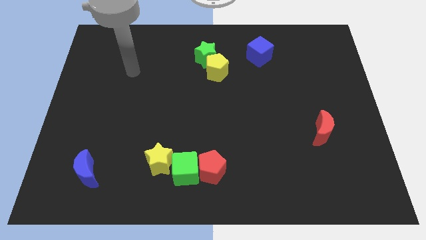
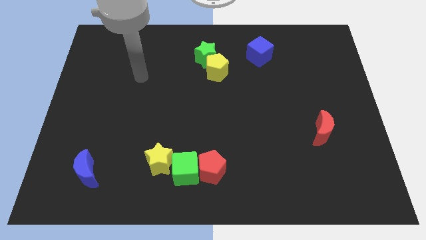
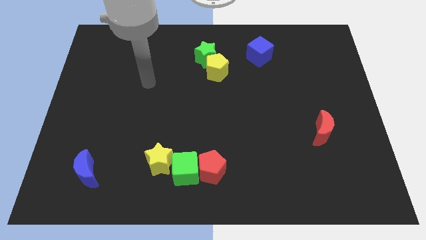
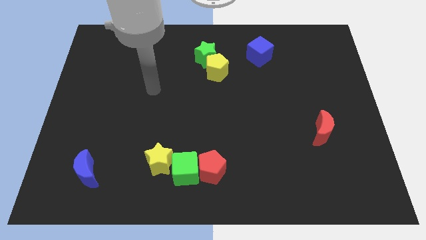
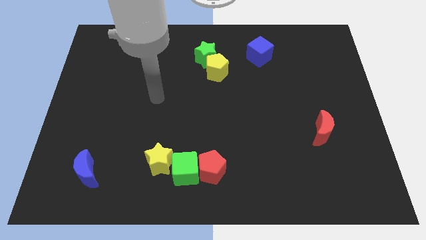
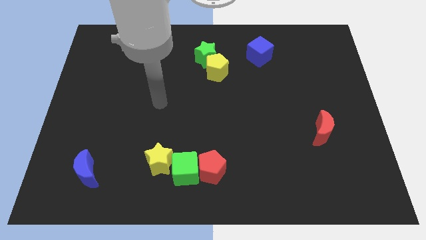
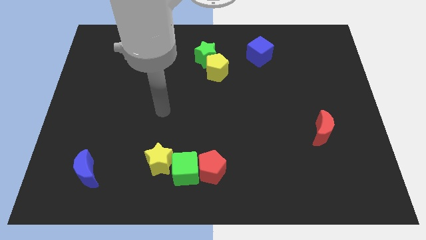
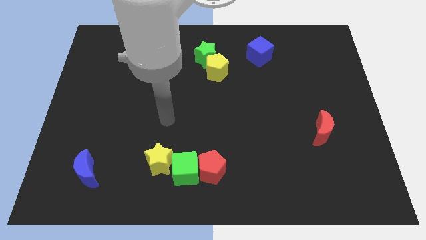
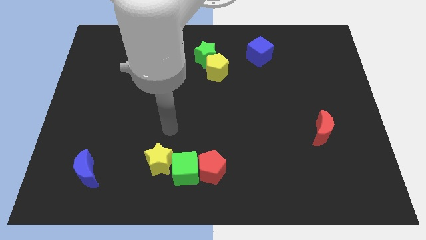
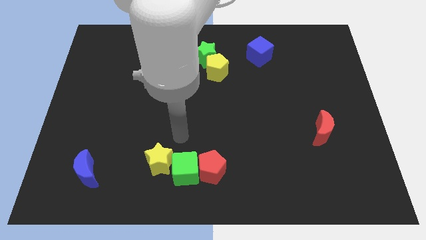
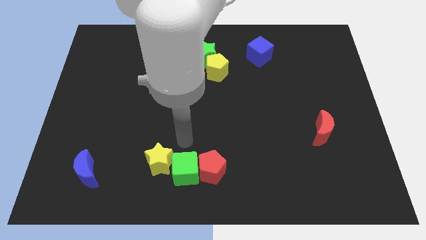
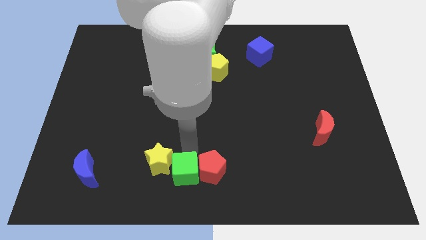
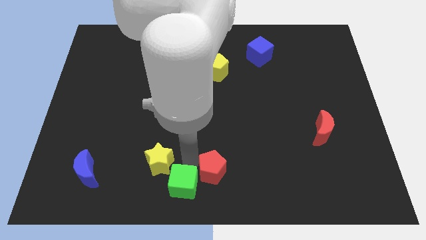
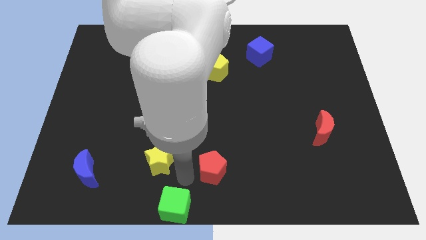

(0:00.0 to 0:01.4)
separate the red pentagon from the green cube

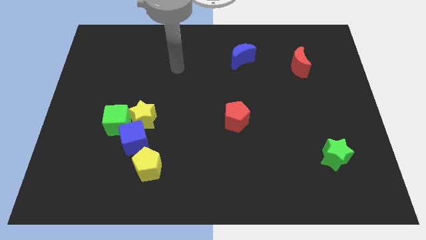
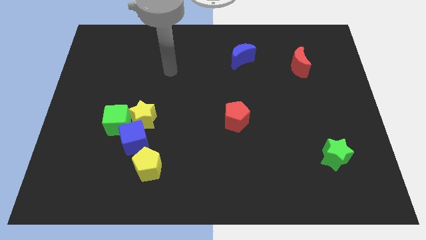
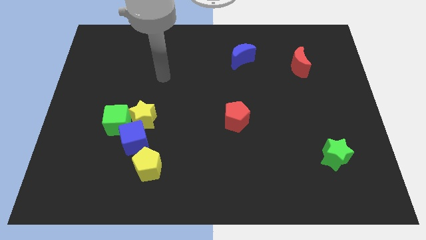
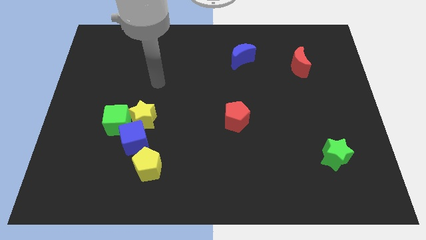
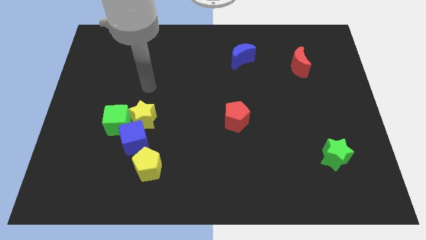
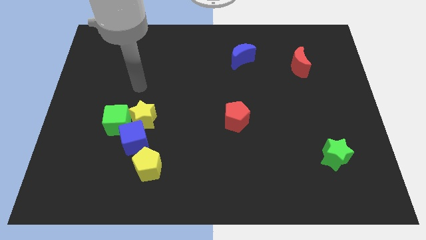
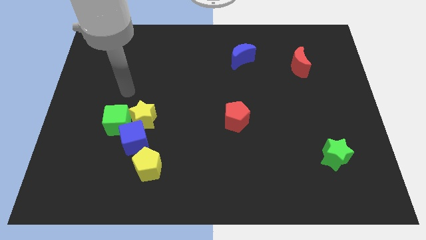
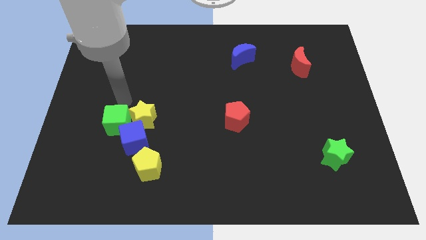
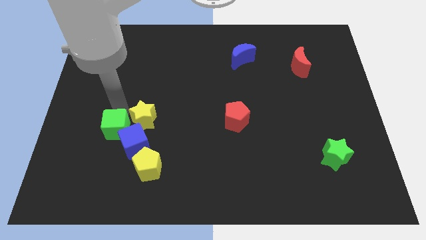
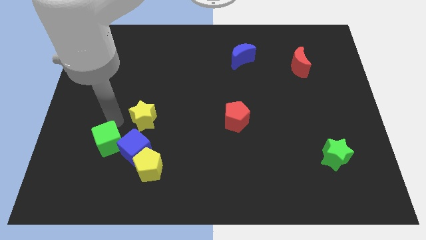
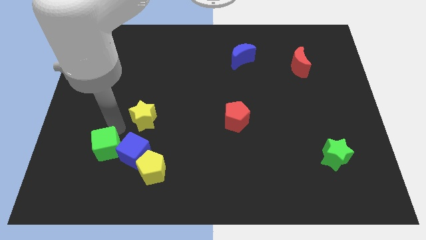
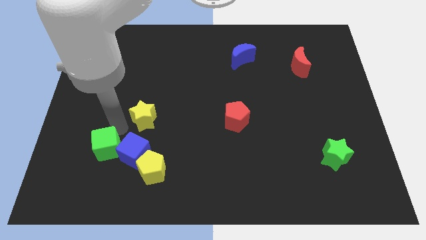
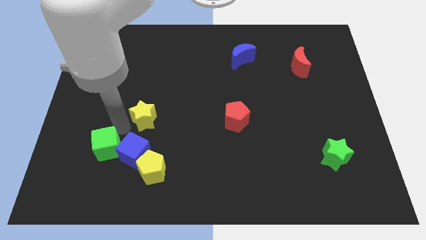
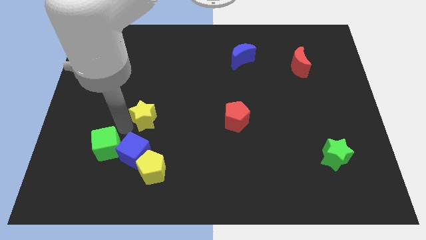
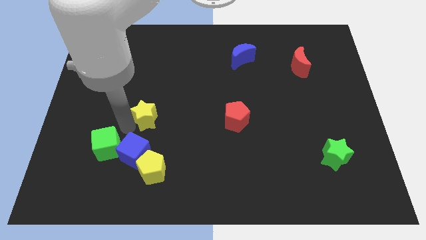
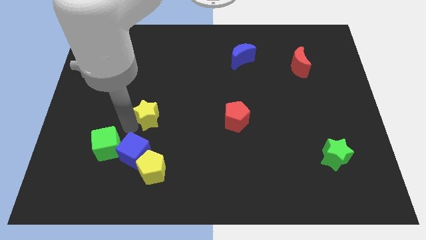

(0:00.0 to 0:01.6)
pull the yellow star apart from the green cube and blue cube

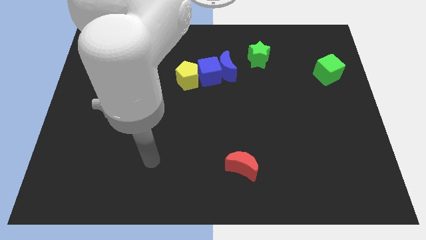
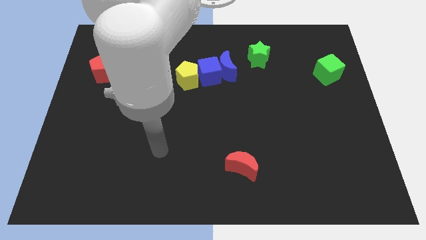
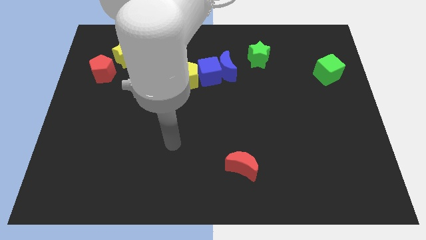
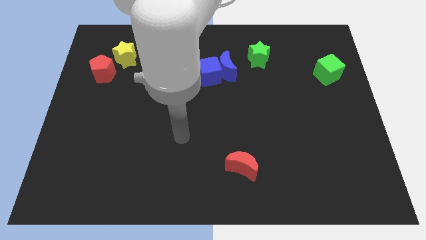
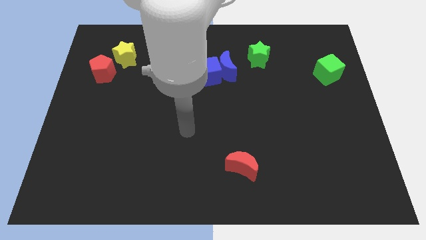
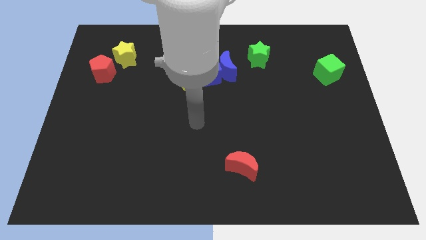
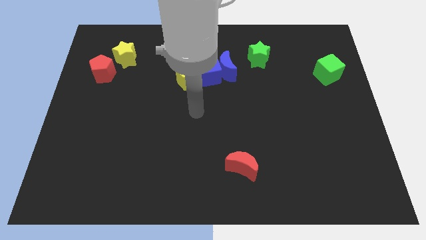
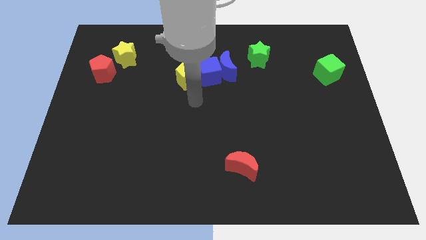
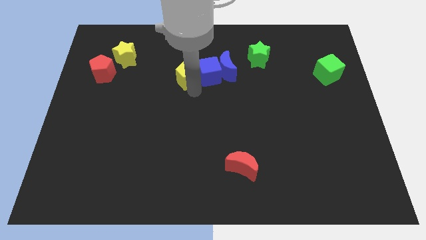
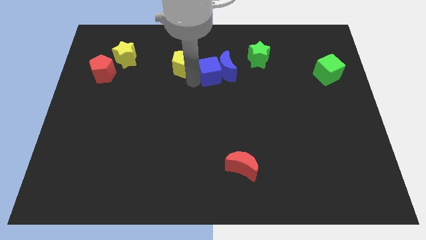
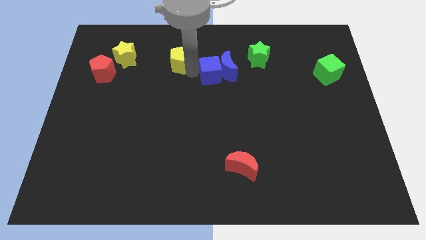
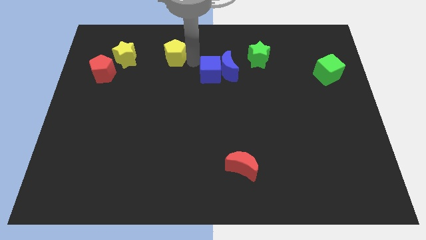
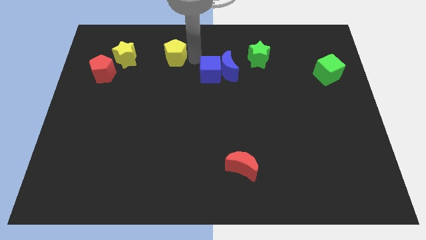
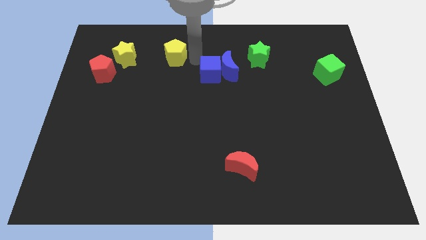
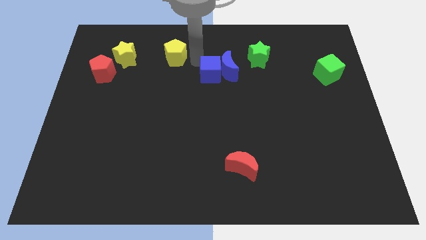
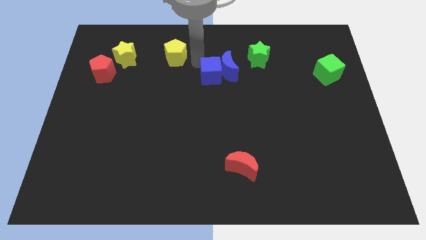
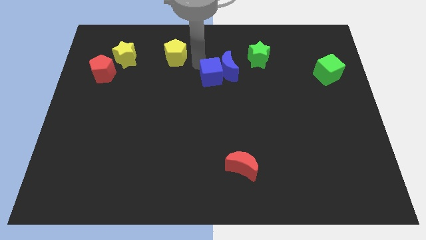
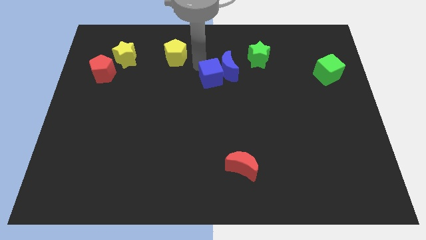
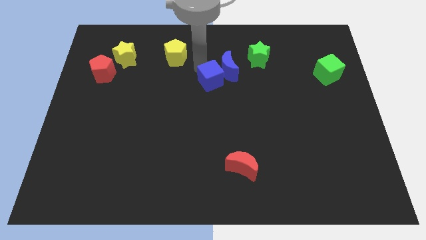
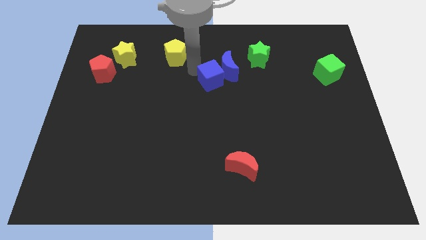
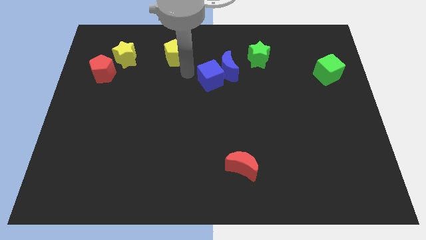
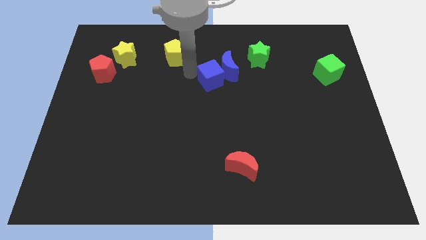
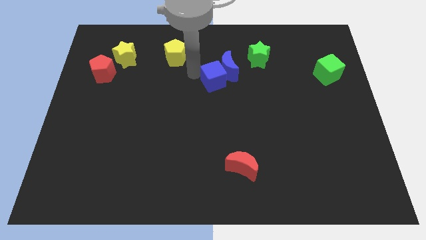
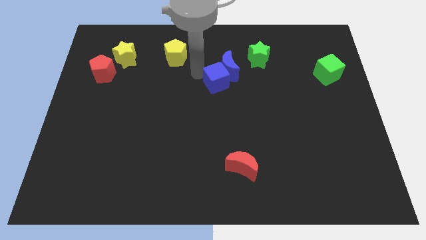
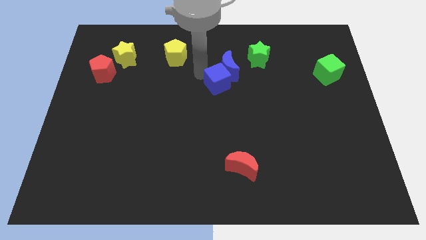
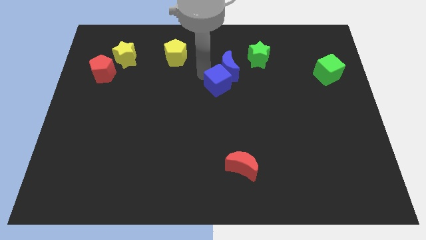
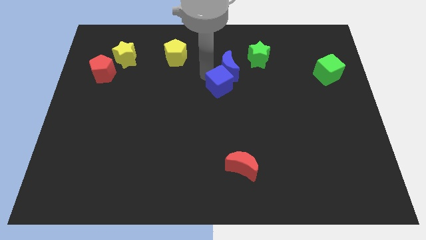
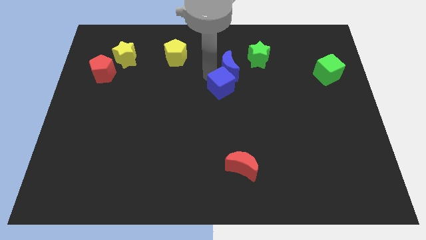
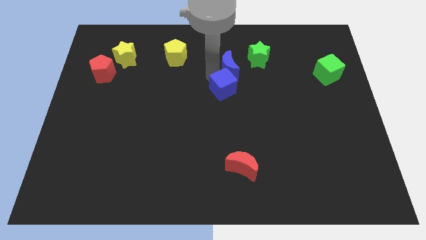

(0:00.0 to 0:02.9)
pull the blue cube apart from the blue moon and yellow pentagon

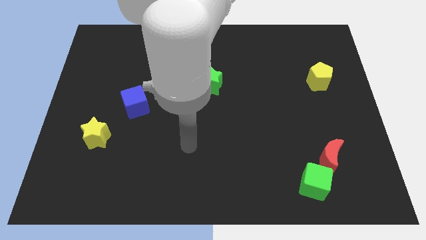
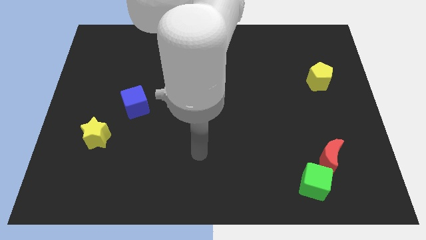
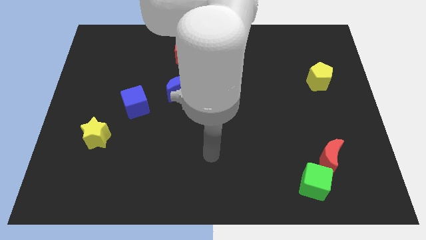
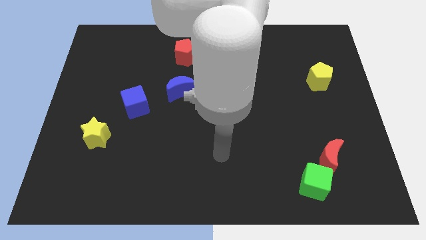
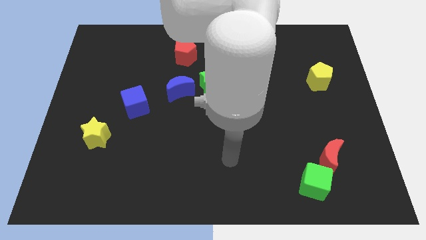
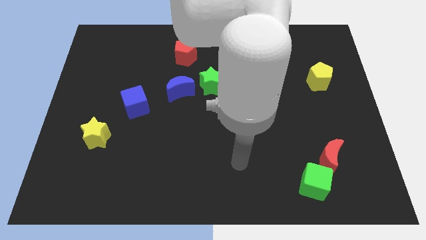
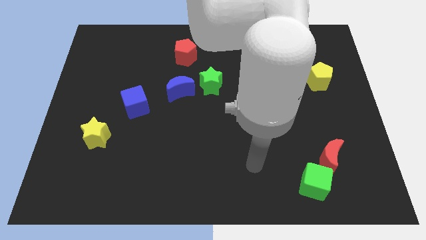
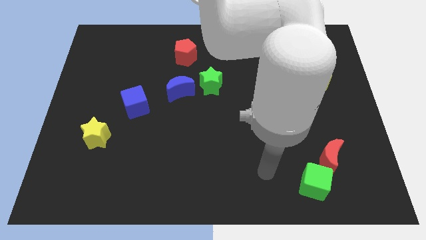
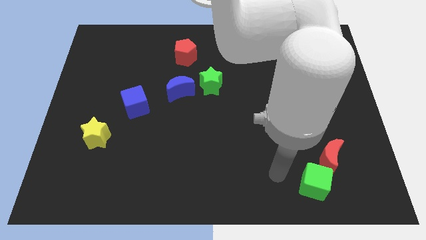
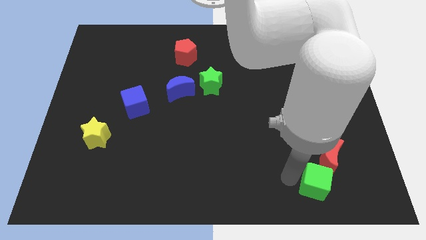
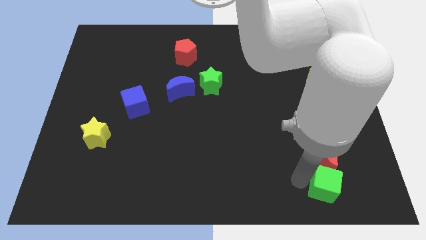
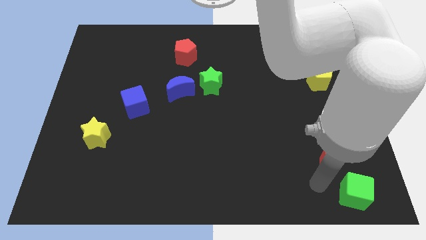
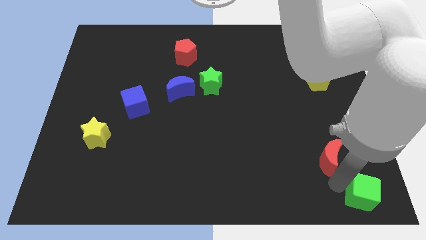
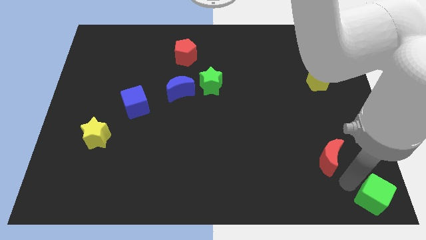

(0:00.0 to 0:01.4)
separate the red moon from the green cube

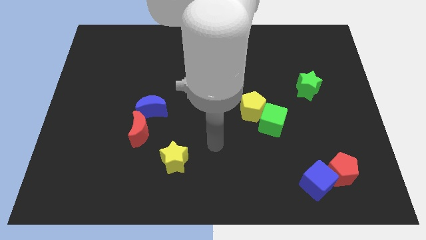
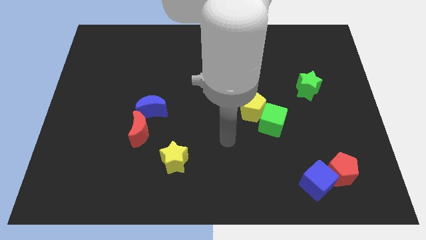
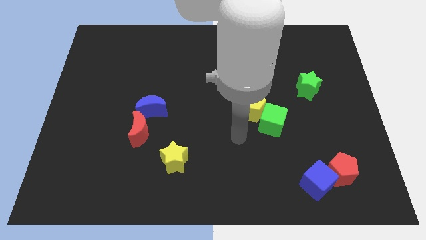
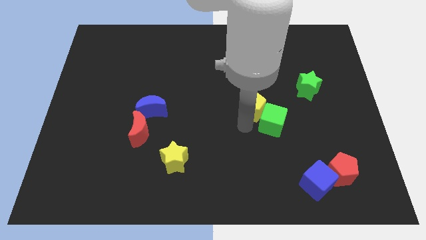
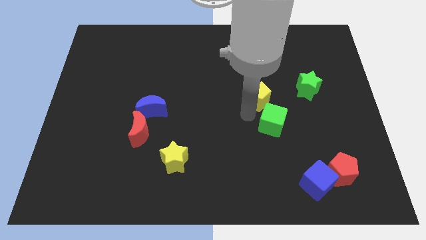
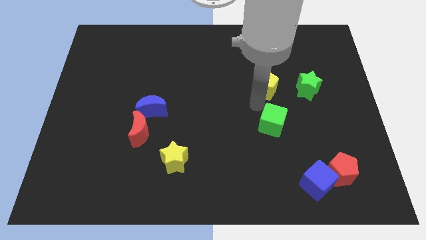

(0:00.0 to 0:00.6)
move the green cube away from the yellow pentagon

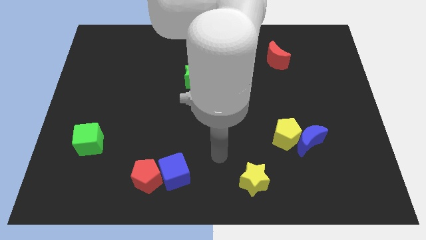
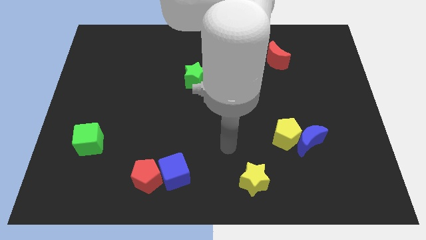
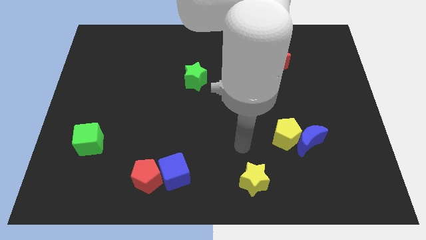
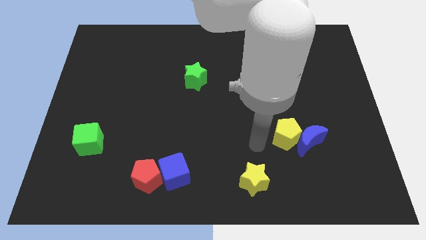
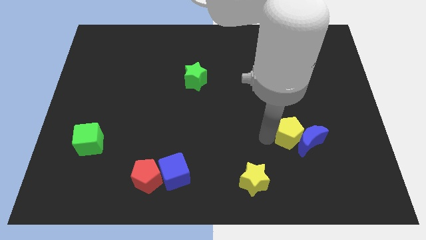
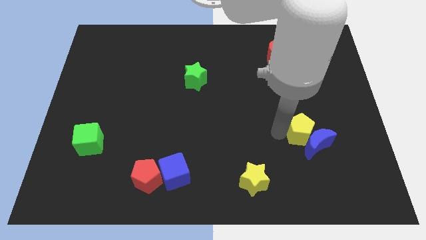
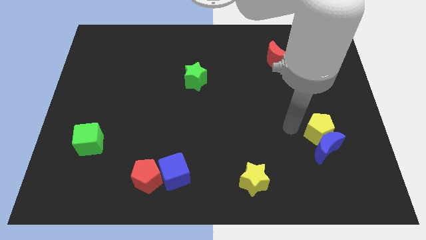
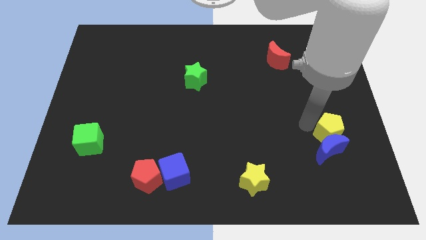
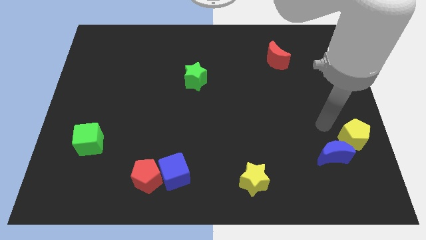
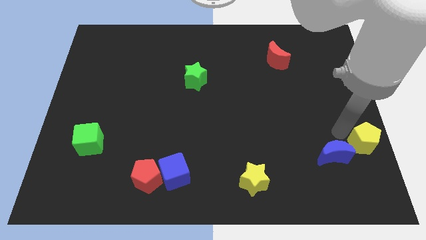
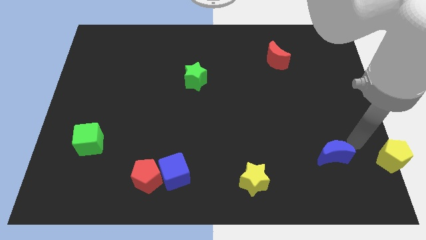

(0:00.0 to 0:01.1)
separate the blue moon from the yellow pentagon

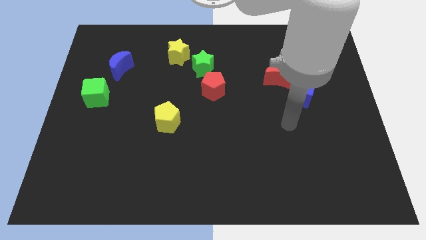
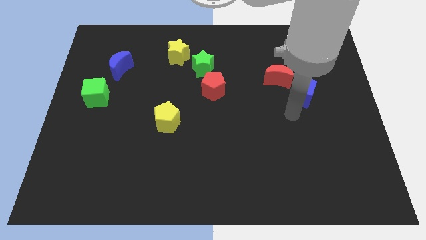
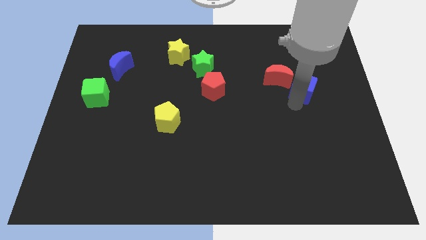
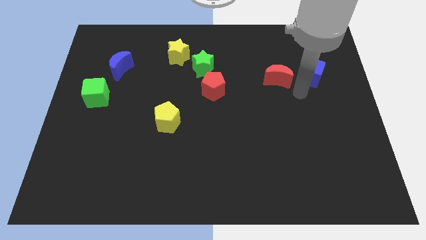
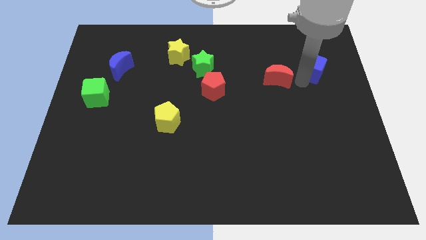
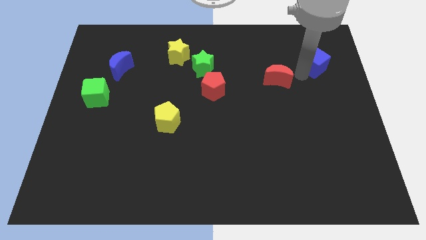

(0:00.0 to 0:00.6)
separate the red moon from the blue cube
